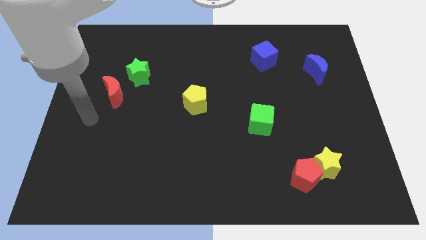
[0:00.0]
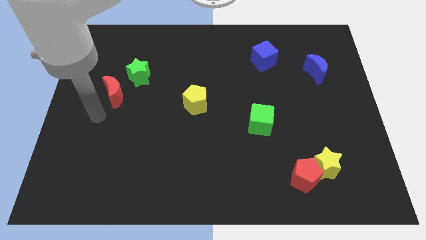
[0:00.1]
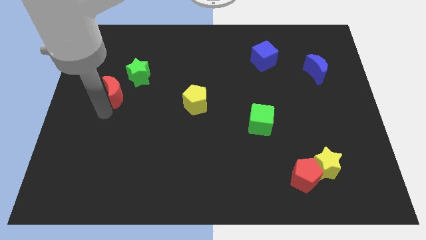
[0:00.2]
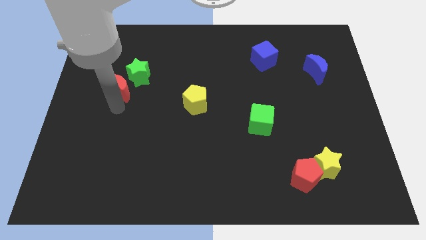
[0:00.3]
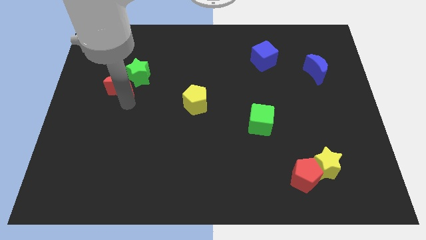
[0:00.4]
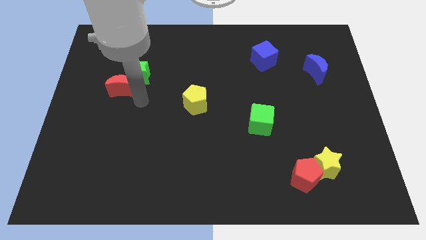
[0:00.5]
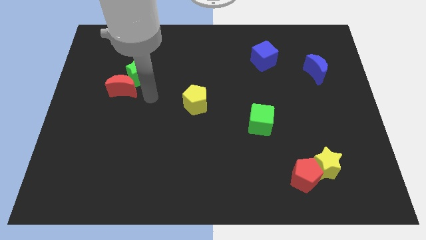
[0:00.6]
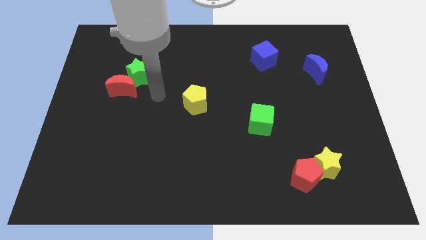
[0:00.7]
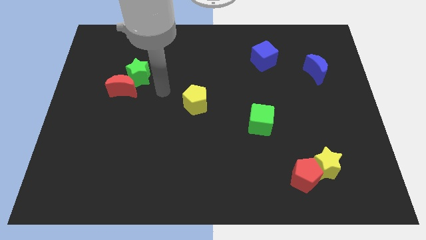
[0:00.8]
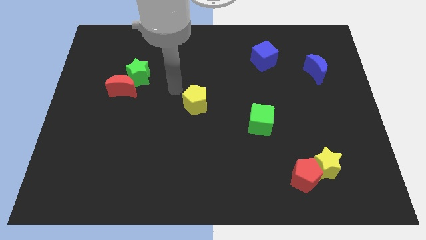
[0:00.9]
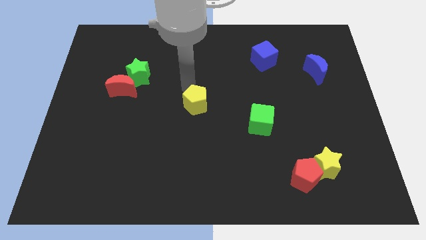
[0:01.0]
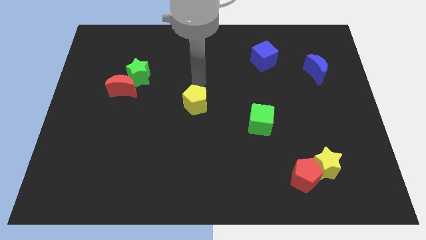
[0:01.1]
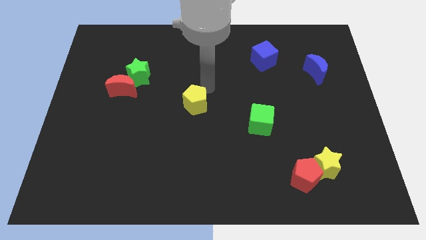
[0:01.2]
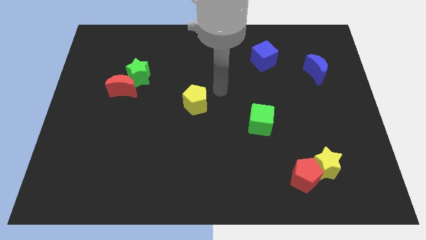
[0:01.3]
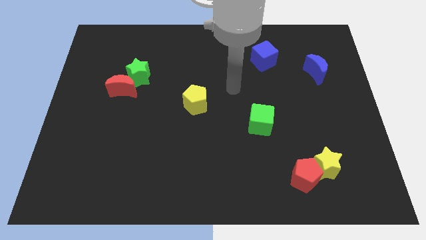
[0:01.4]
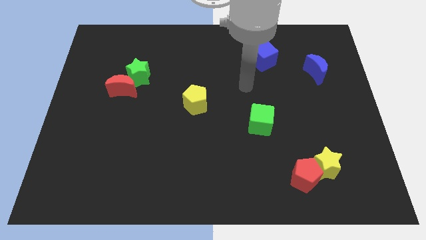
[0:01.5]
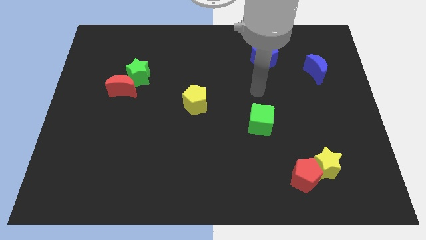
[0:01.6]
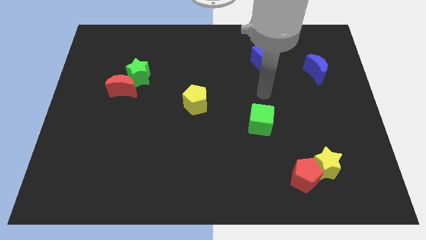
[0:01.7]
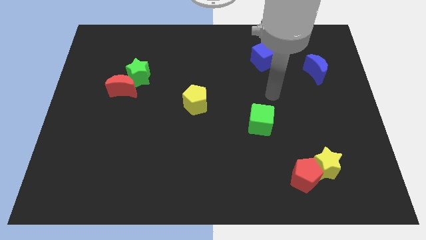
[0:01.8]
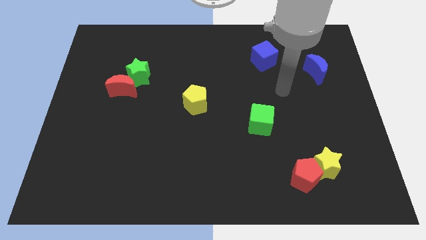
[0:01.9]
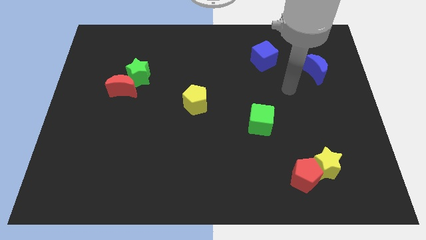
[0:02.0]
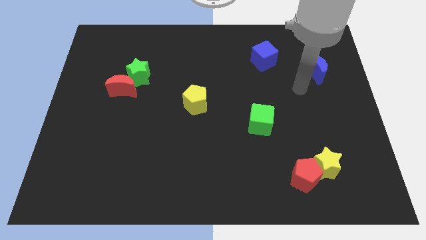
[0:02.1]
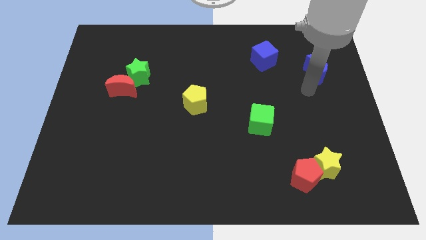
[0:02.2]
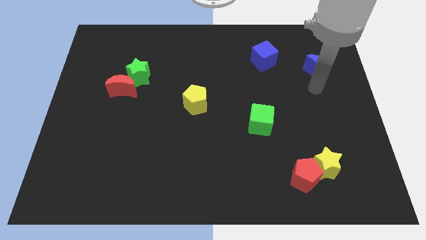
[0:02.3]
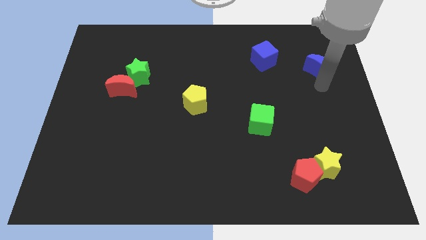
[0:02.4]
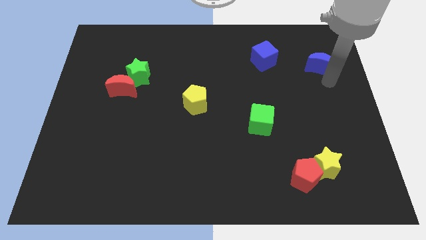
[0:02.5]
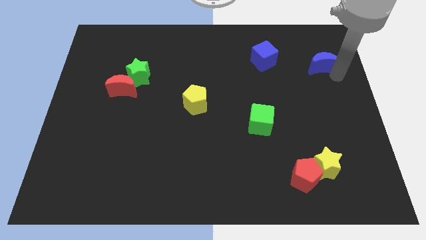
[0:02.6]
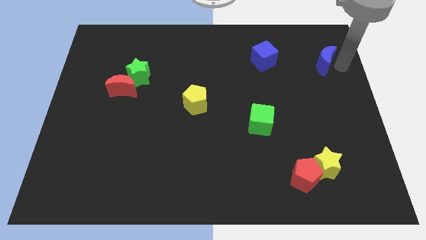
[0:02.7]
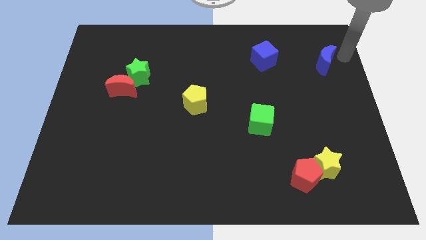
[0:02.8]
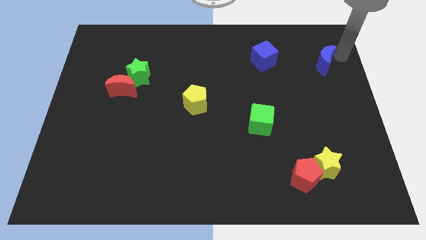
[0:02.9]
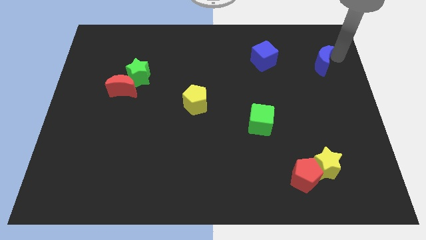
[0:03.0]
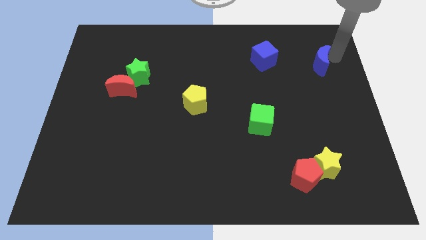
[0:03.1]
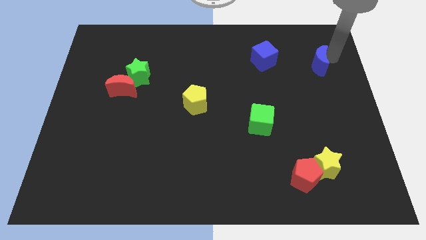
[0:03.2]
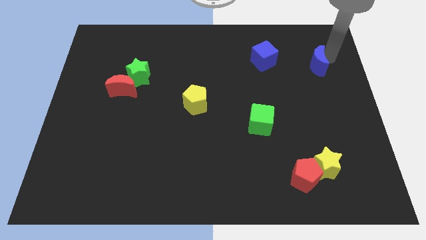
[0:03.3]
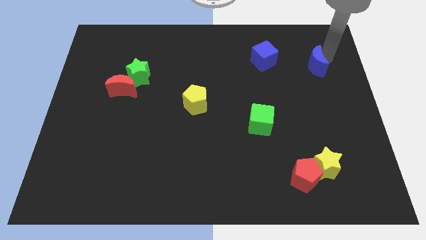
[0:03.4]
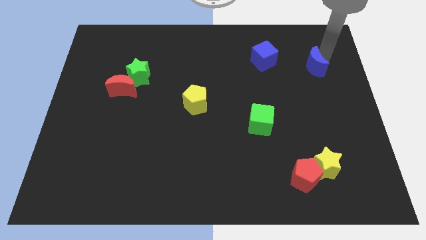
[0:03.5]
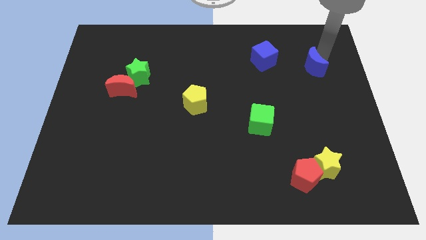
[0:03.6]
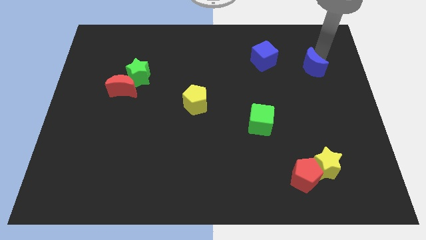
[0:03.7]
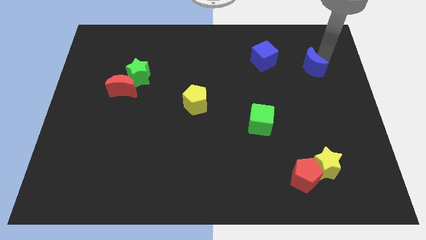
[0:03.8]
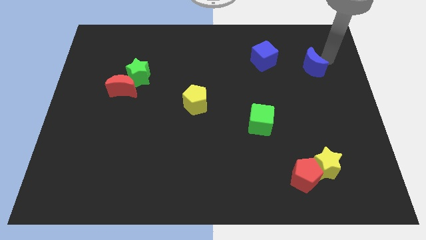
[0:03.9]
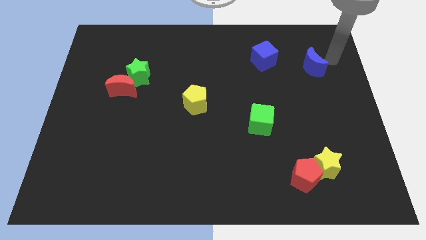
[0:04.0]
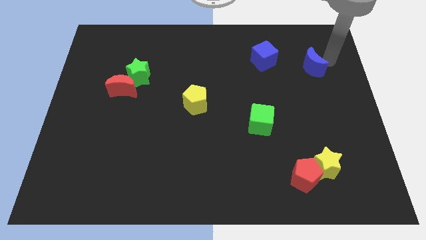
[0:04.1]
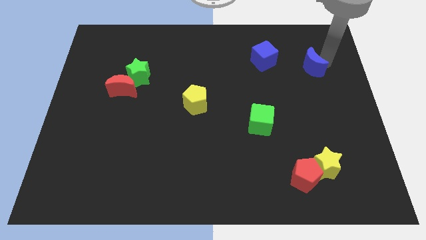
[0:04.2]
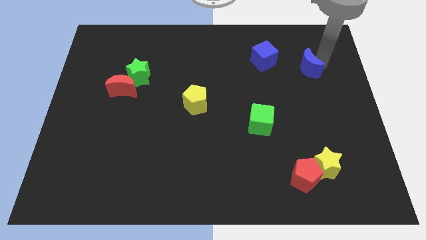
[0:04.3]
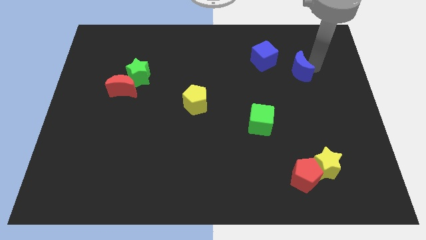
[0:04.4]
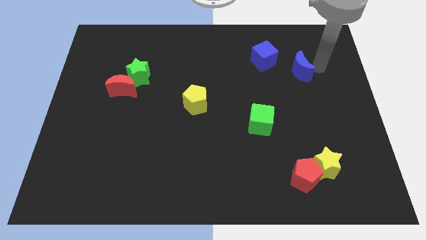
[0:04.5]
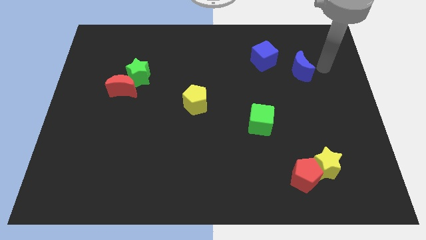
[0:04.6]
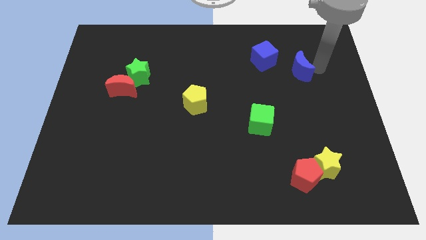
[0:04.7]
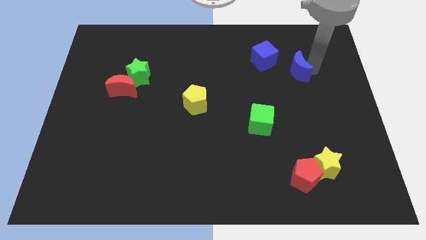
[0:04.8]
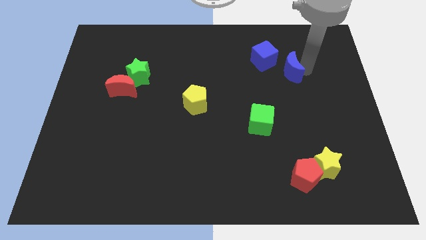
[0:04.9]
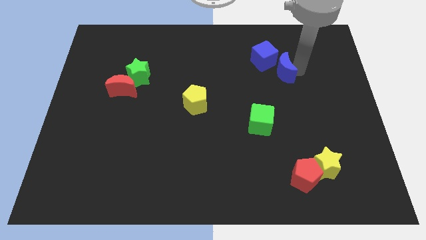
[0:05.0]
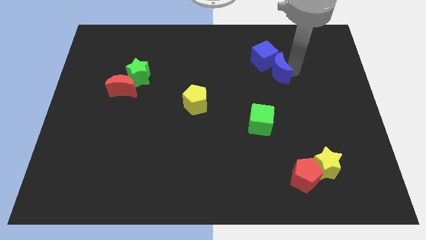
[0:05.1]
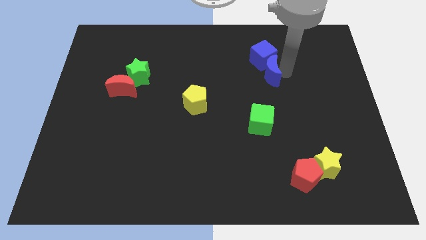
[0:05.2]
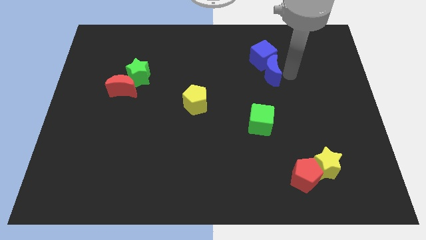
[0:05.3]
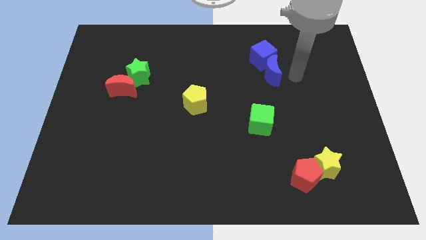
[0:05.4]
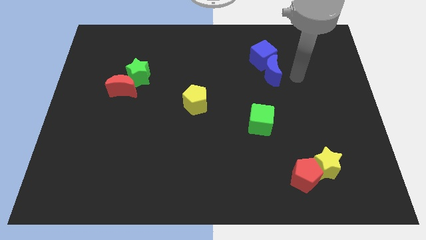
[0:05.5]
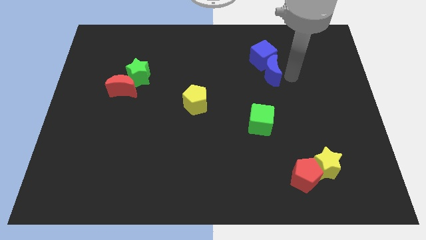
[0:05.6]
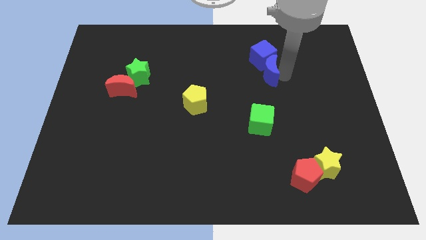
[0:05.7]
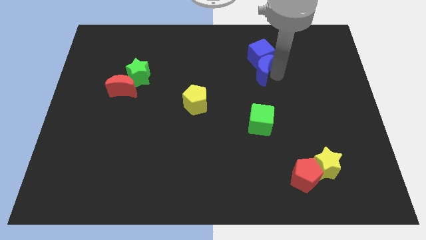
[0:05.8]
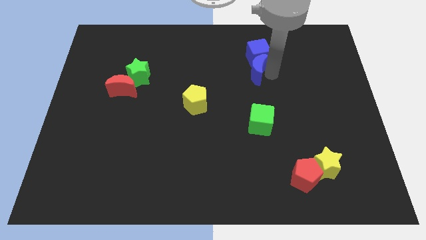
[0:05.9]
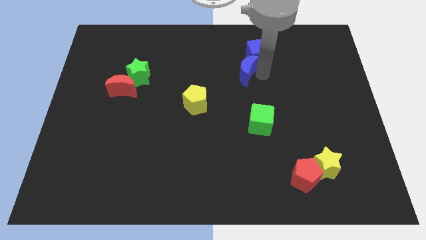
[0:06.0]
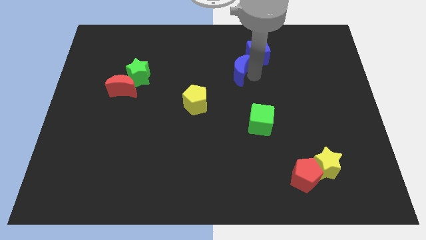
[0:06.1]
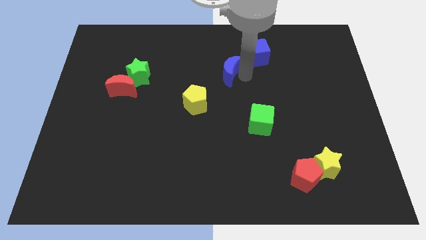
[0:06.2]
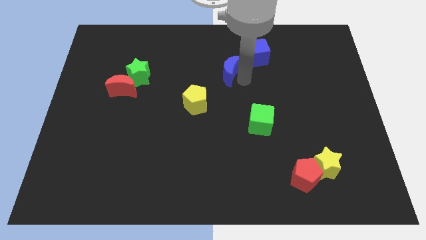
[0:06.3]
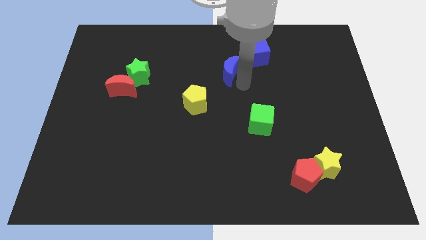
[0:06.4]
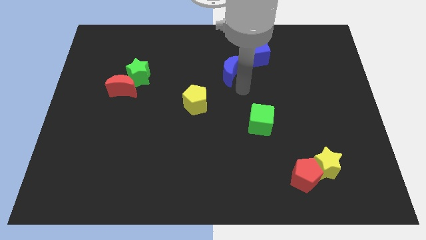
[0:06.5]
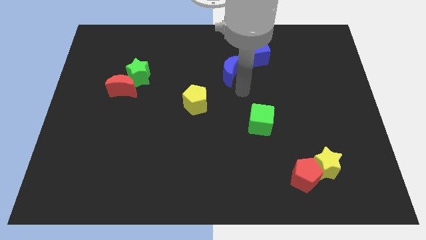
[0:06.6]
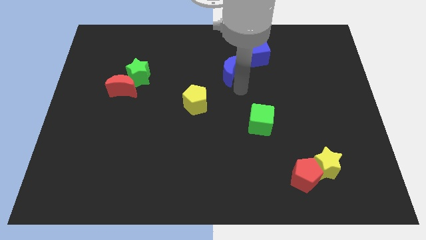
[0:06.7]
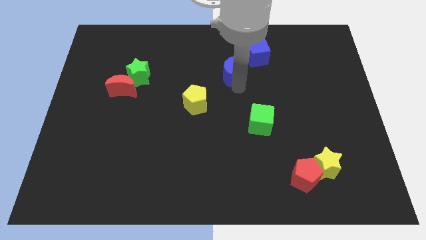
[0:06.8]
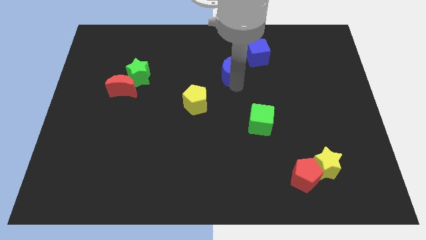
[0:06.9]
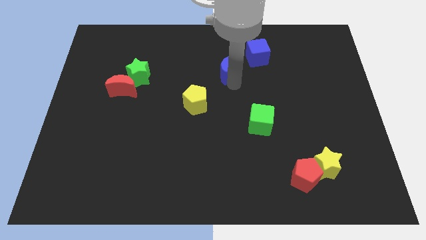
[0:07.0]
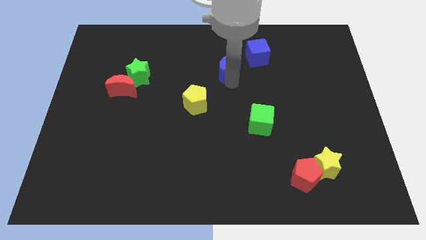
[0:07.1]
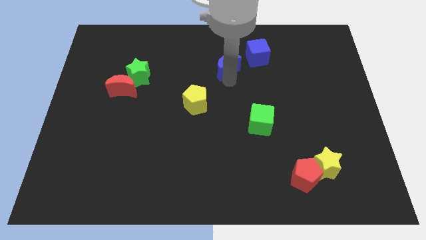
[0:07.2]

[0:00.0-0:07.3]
move the blue moon left of the blue cube
